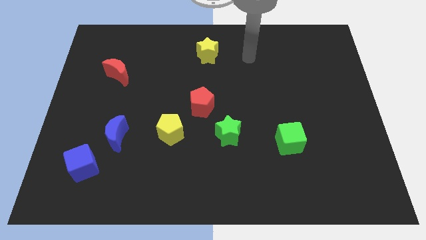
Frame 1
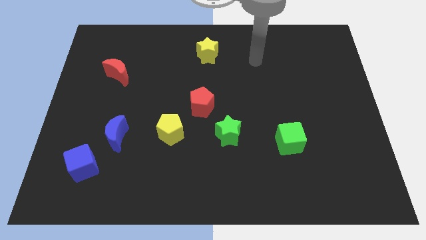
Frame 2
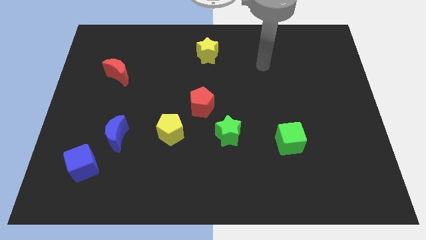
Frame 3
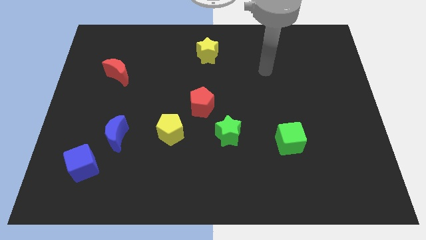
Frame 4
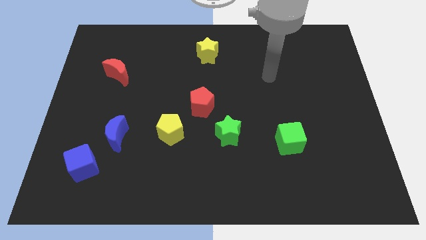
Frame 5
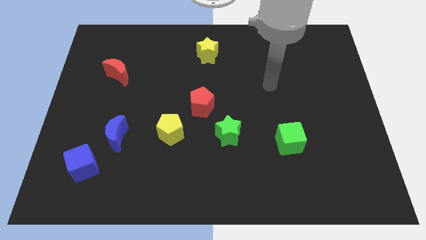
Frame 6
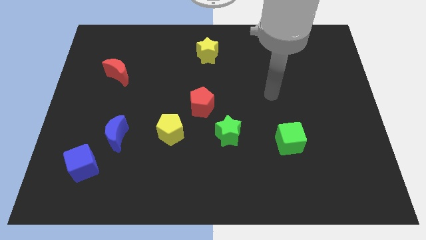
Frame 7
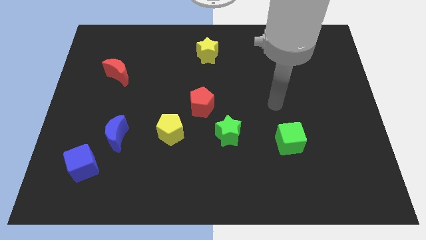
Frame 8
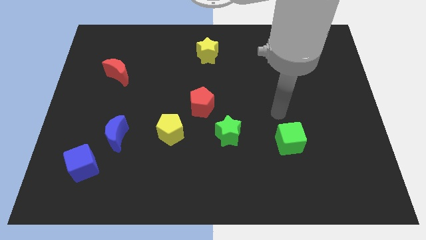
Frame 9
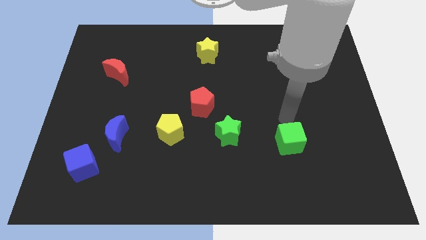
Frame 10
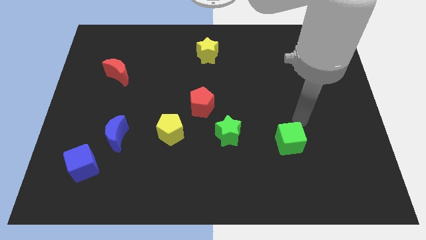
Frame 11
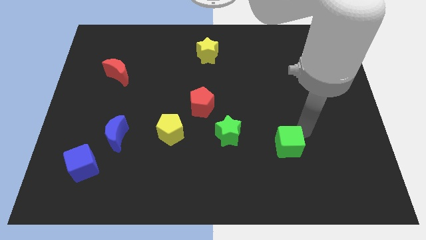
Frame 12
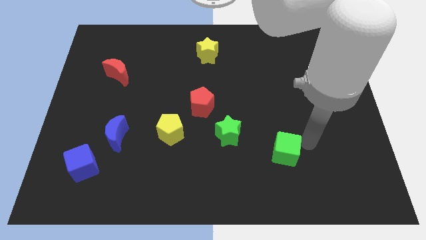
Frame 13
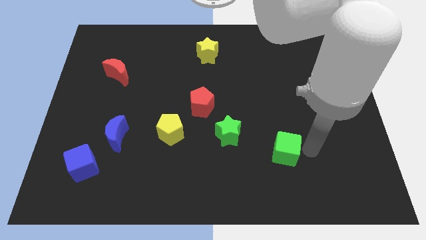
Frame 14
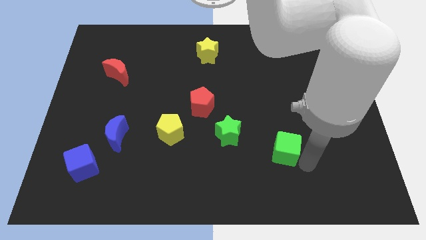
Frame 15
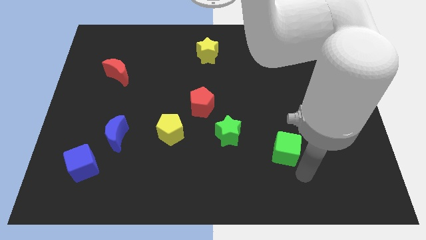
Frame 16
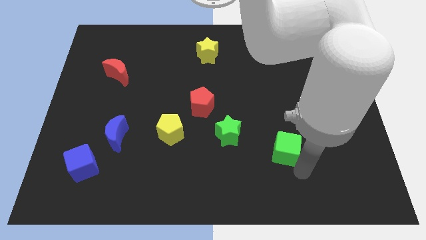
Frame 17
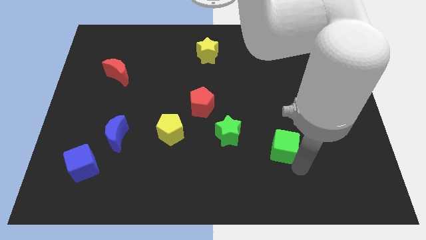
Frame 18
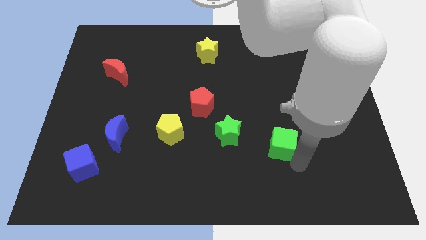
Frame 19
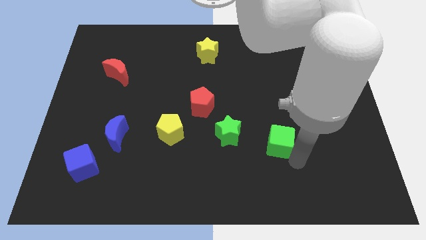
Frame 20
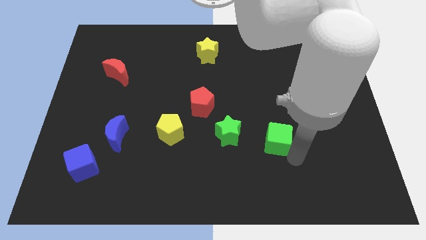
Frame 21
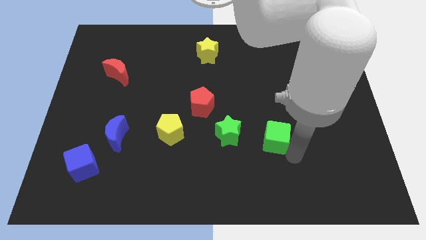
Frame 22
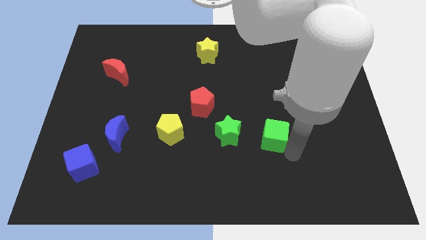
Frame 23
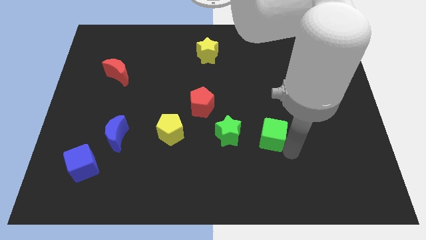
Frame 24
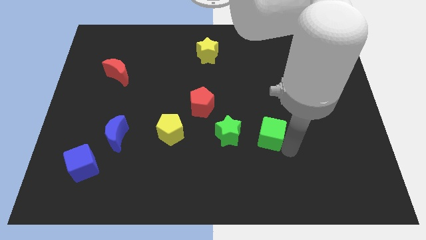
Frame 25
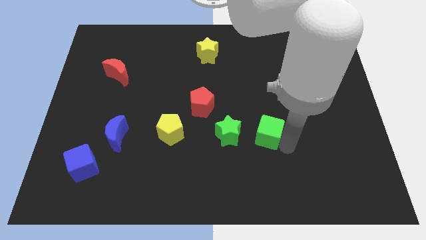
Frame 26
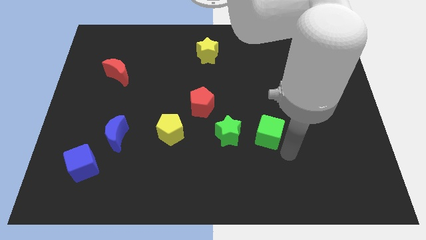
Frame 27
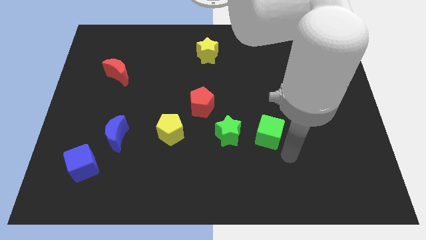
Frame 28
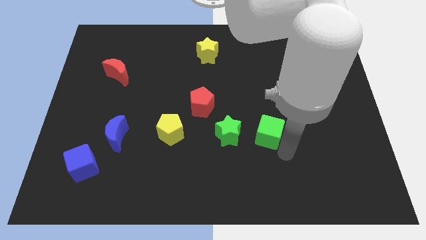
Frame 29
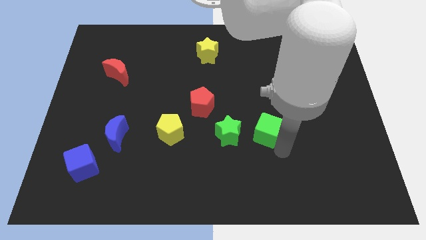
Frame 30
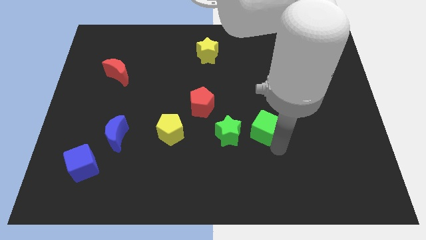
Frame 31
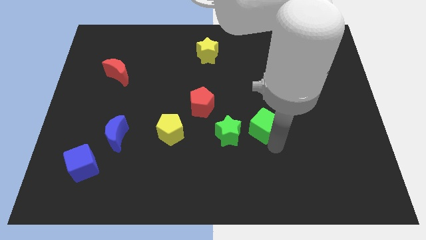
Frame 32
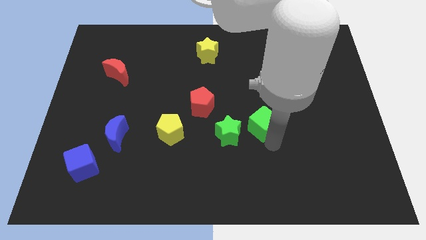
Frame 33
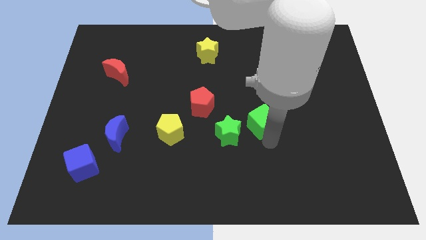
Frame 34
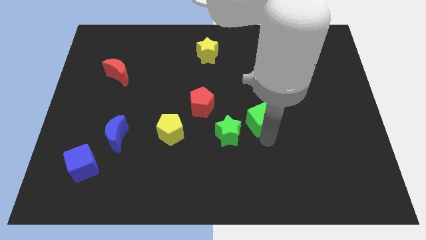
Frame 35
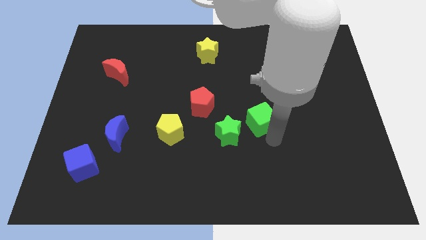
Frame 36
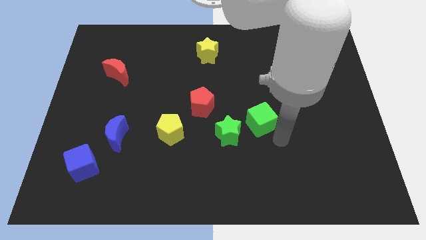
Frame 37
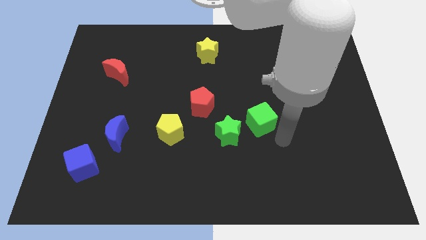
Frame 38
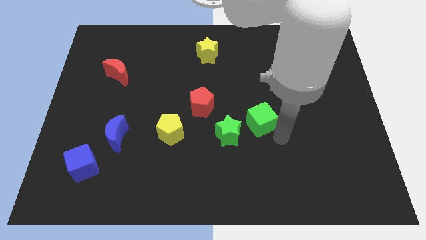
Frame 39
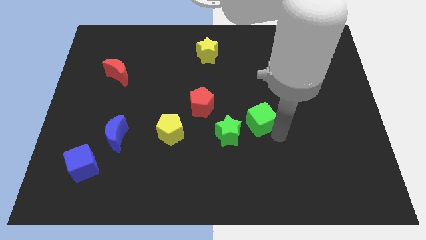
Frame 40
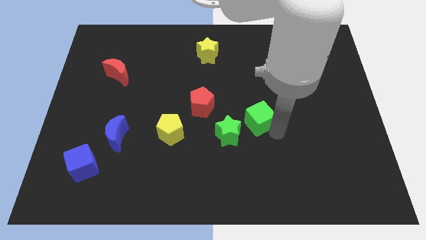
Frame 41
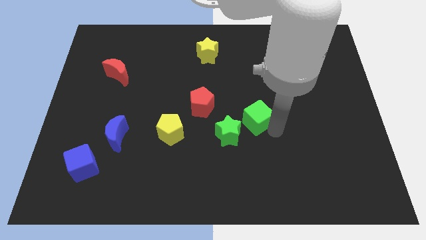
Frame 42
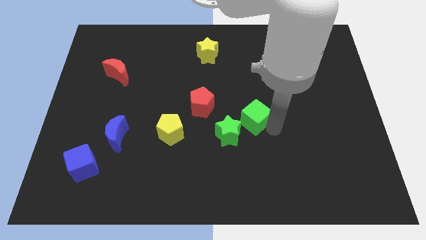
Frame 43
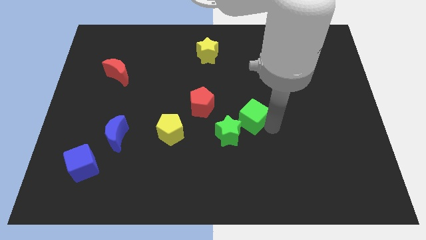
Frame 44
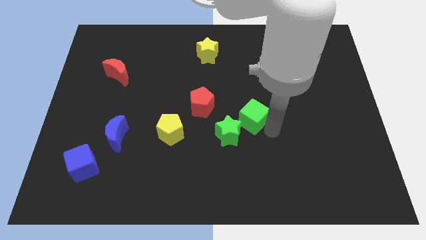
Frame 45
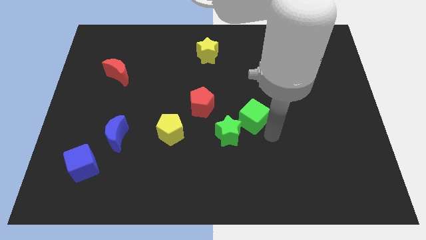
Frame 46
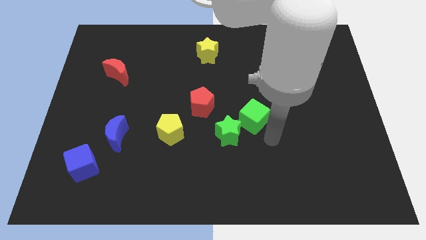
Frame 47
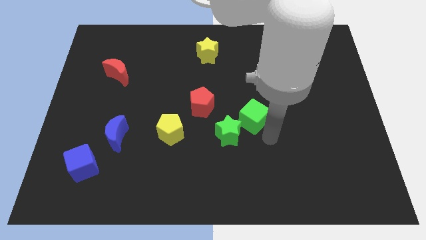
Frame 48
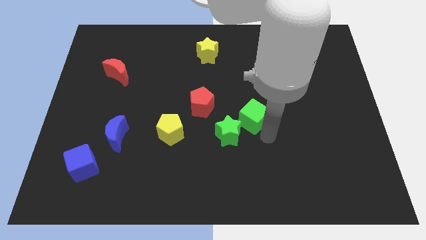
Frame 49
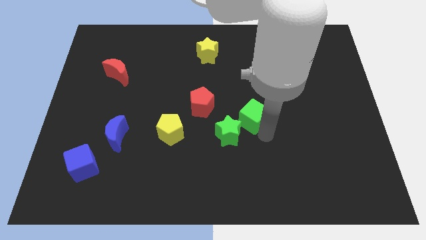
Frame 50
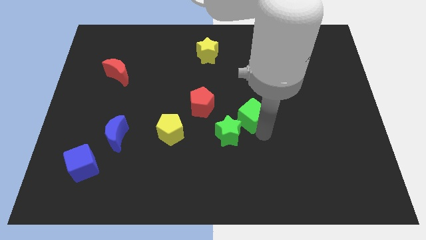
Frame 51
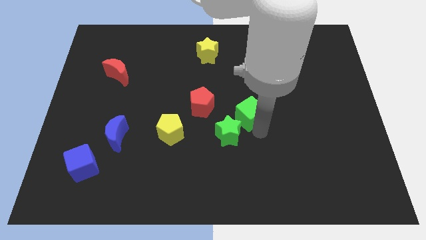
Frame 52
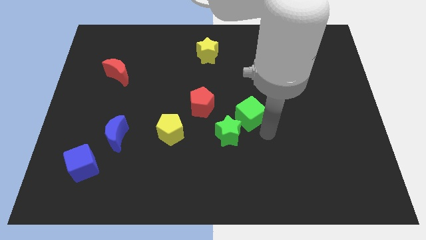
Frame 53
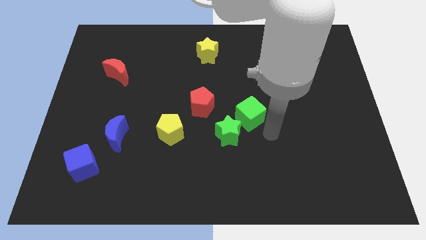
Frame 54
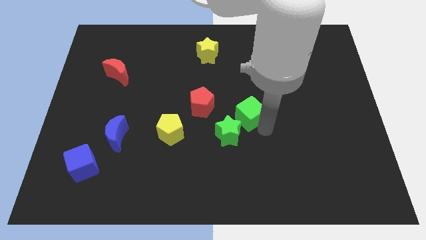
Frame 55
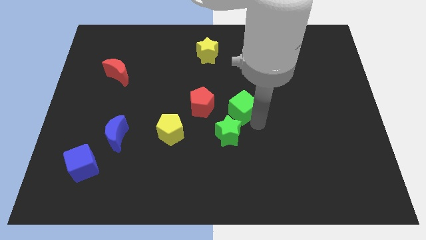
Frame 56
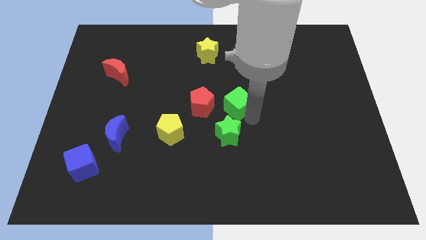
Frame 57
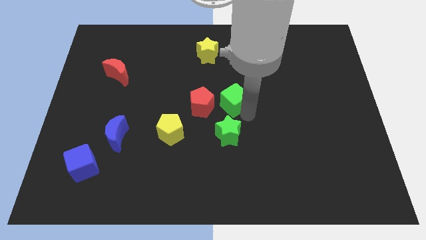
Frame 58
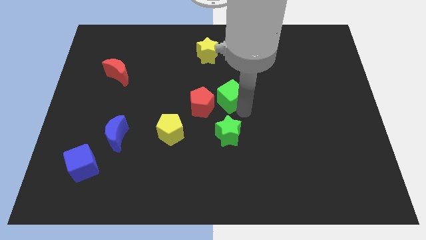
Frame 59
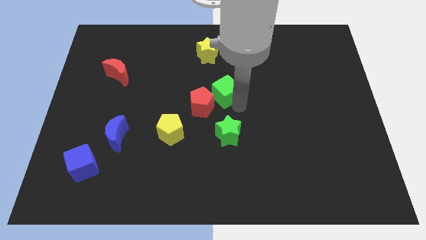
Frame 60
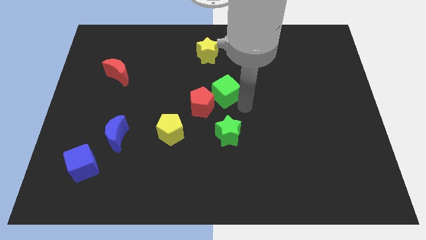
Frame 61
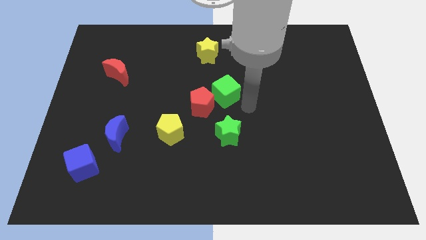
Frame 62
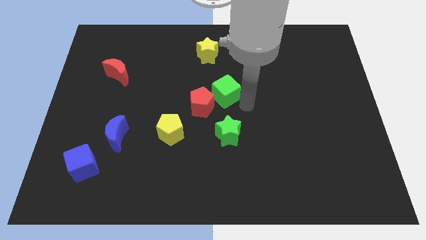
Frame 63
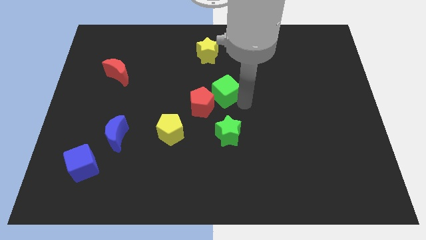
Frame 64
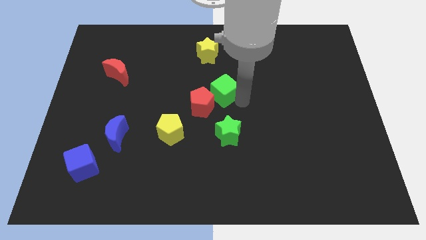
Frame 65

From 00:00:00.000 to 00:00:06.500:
push the green cube below the yellow star
